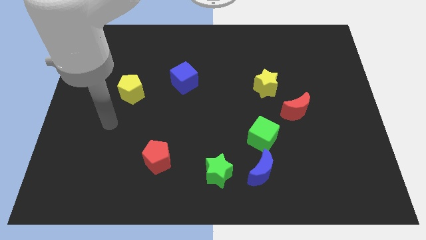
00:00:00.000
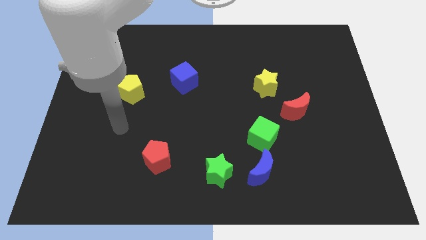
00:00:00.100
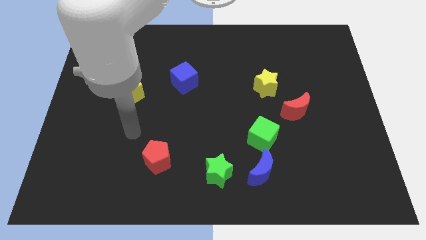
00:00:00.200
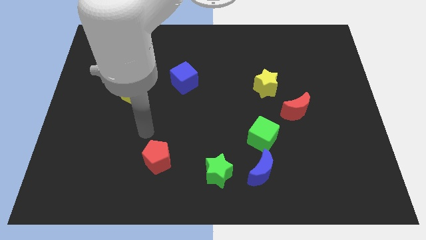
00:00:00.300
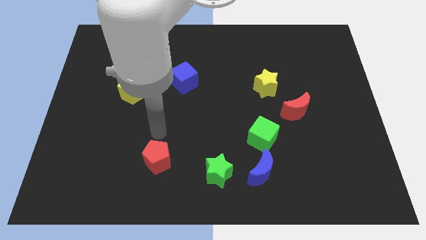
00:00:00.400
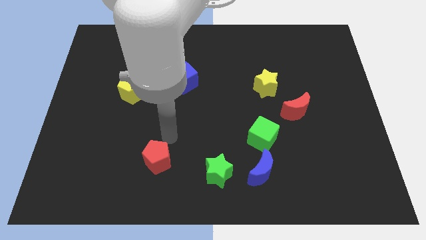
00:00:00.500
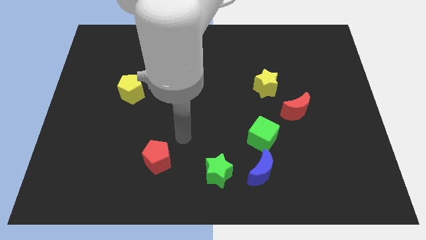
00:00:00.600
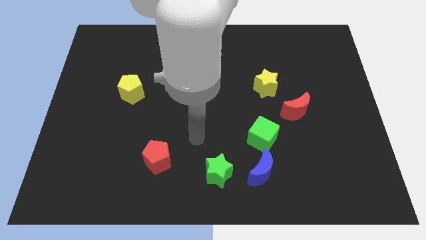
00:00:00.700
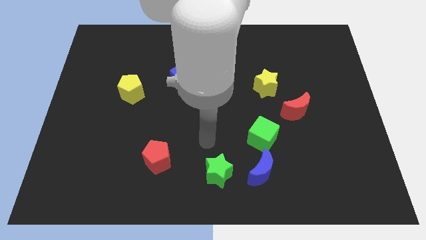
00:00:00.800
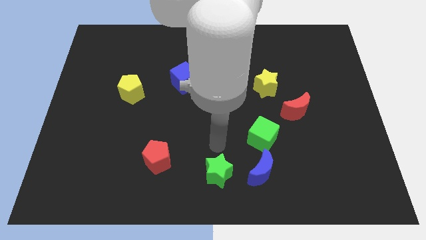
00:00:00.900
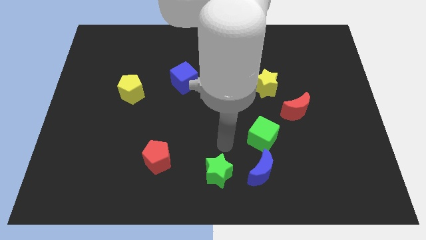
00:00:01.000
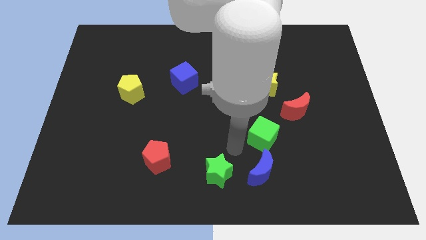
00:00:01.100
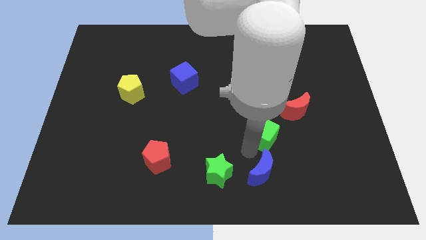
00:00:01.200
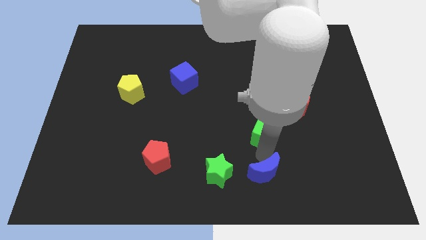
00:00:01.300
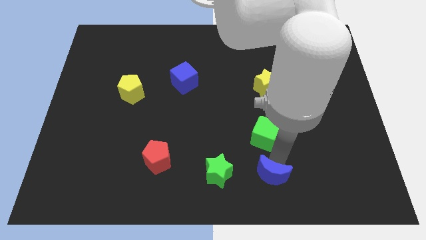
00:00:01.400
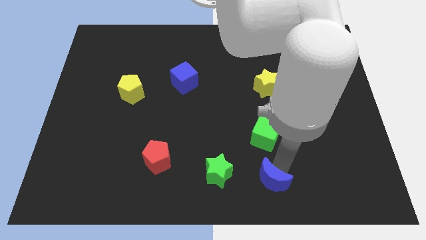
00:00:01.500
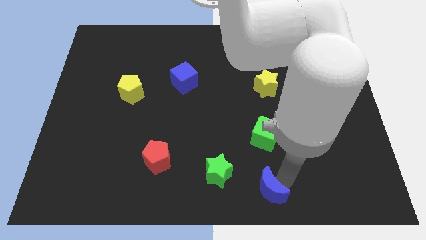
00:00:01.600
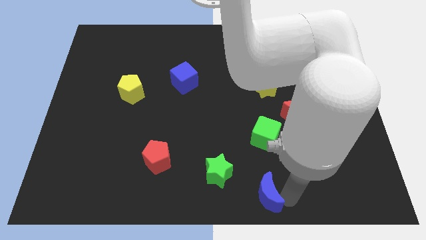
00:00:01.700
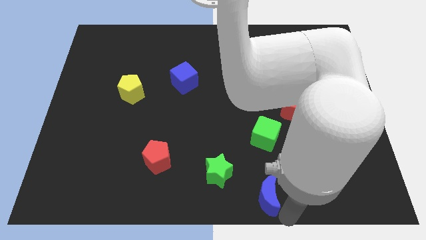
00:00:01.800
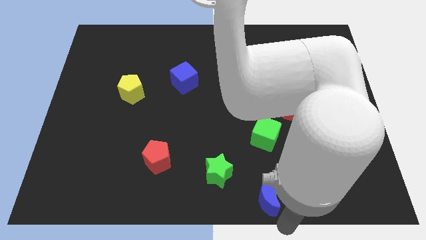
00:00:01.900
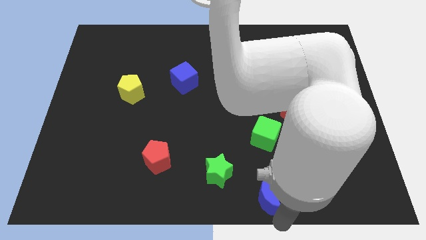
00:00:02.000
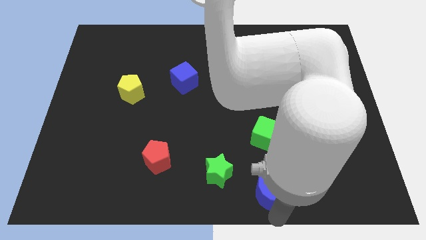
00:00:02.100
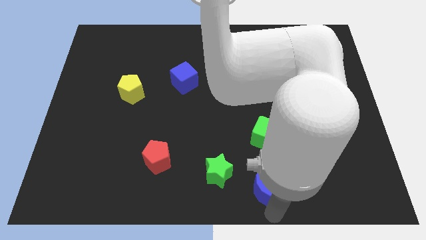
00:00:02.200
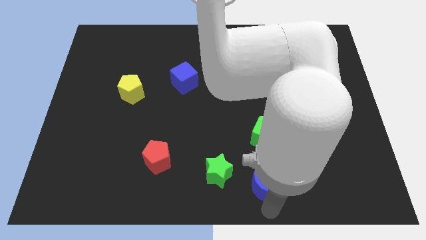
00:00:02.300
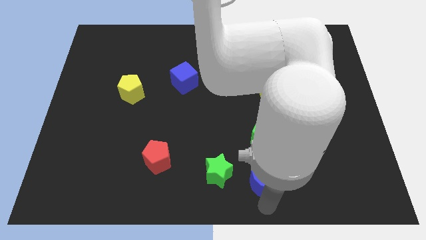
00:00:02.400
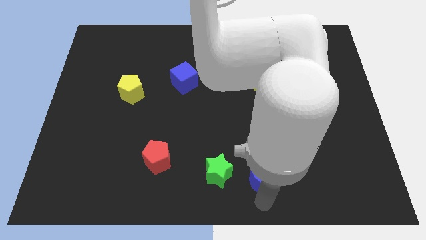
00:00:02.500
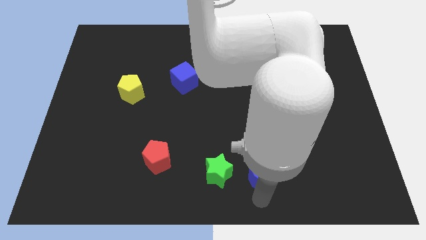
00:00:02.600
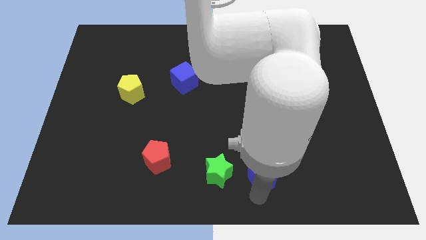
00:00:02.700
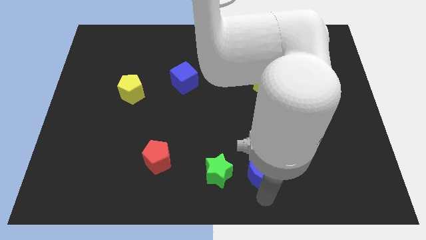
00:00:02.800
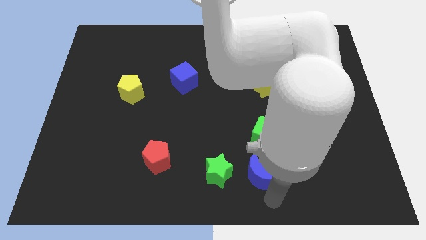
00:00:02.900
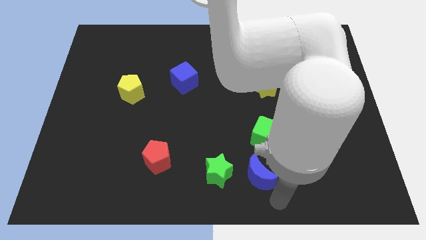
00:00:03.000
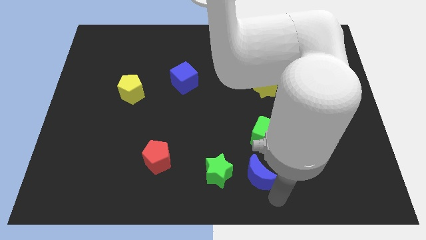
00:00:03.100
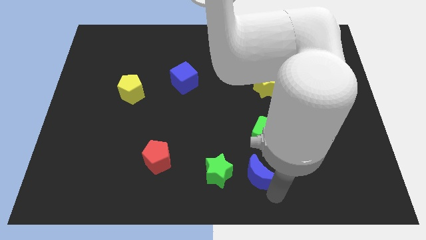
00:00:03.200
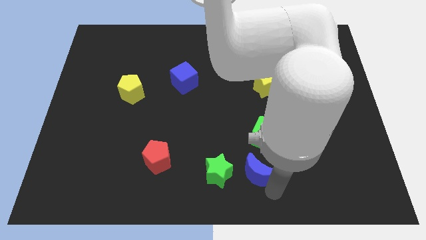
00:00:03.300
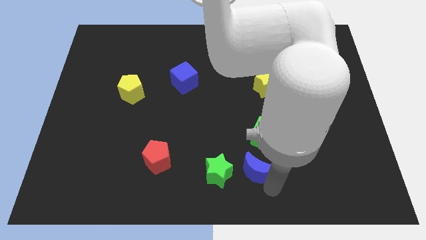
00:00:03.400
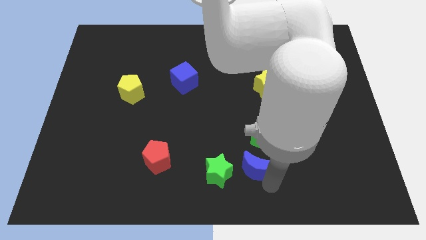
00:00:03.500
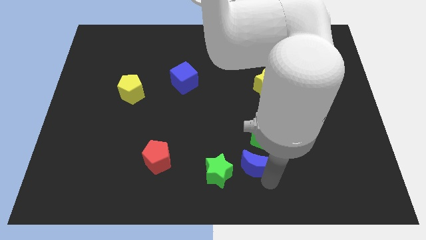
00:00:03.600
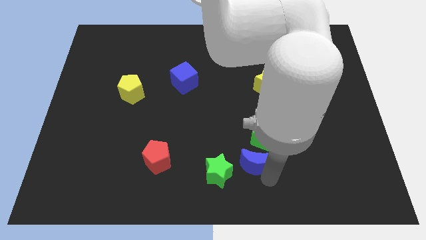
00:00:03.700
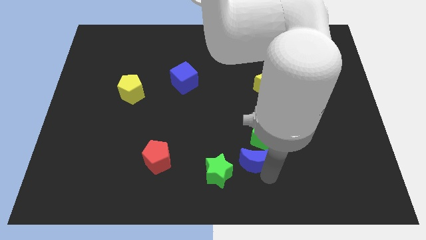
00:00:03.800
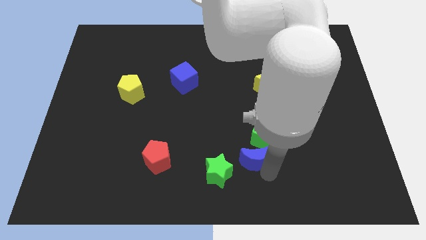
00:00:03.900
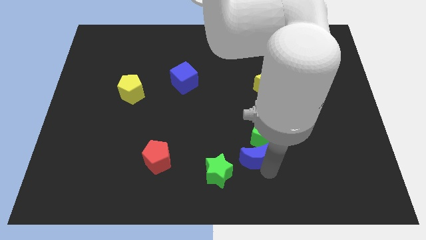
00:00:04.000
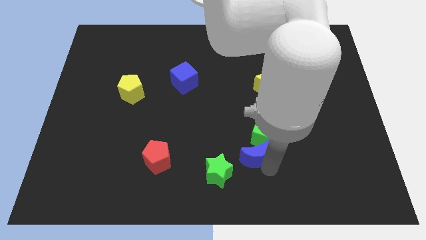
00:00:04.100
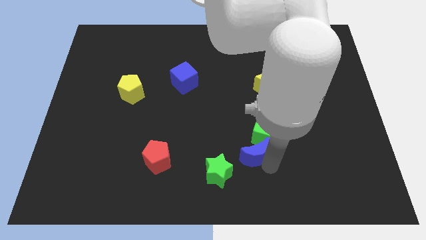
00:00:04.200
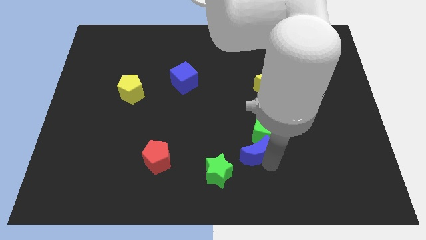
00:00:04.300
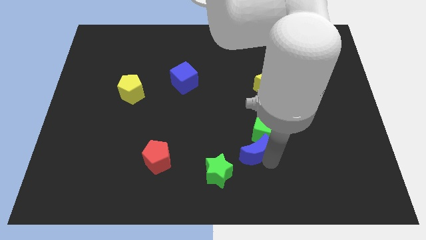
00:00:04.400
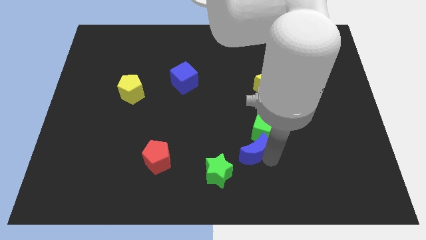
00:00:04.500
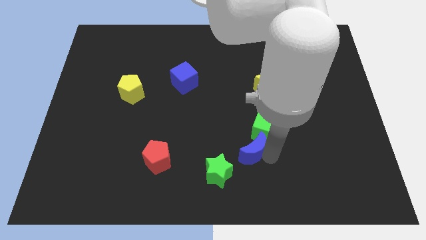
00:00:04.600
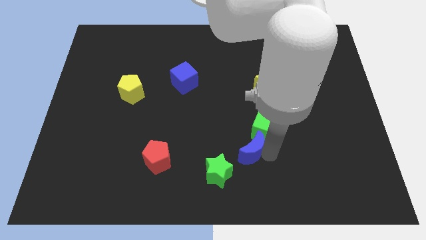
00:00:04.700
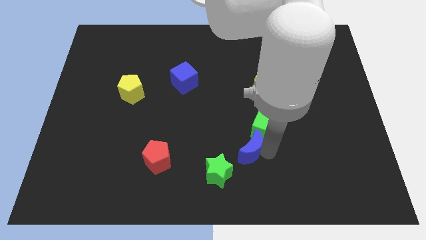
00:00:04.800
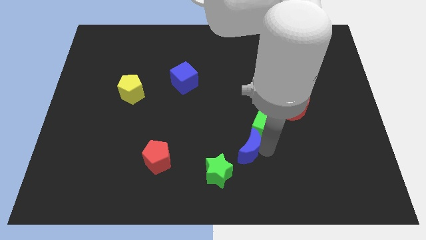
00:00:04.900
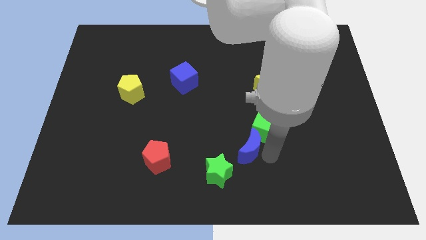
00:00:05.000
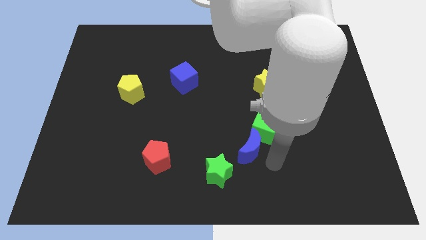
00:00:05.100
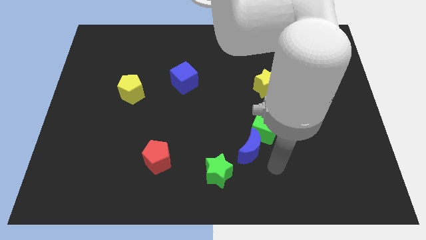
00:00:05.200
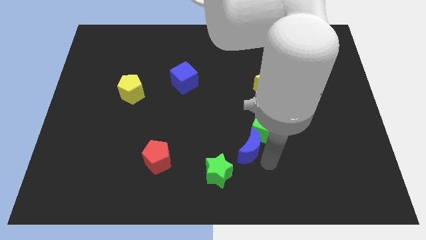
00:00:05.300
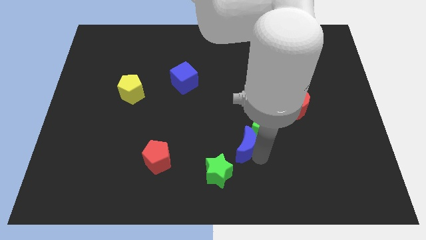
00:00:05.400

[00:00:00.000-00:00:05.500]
put the blue moon to the left of the green cube

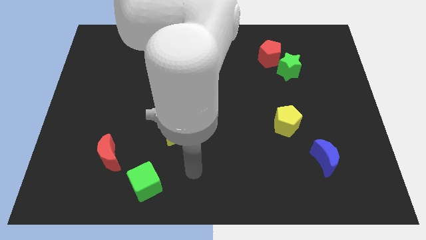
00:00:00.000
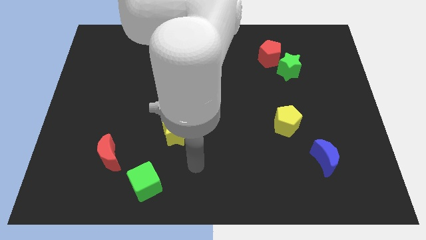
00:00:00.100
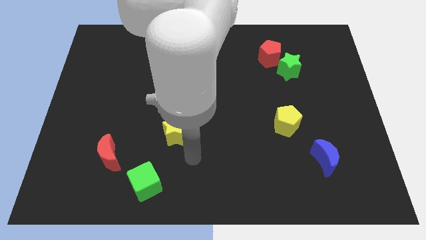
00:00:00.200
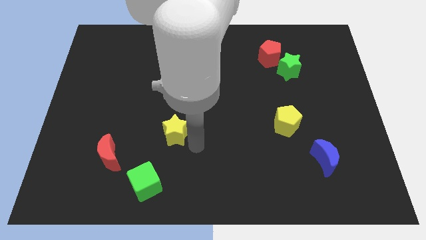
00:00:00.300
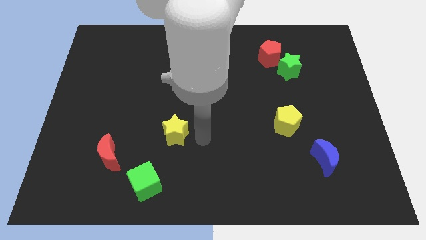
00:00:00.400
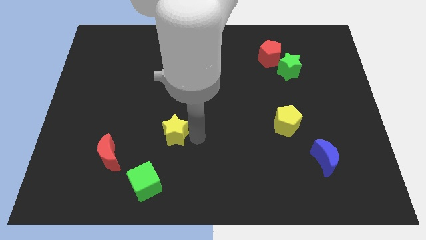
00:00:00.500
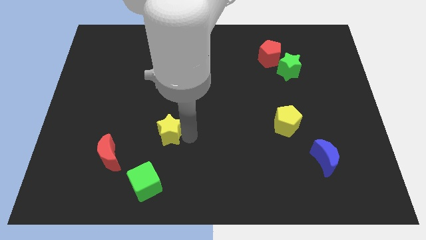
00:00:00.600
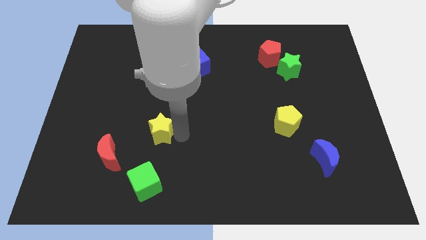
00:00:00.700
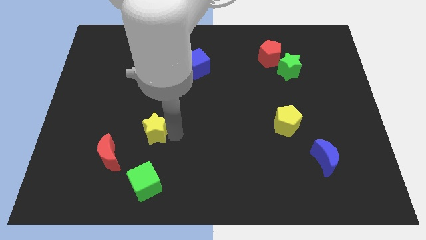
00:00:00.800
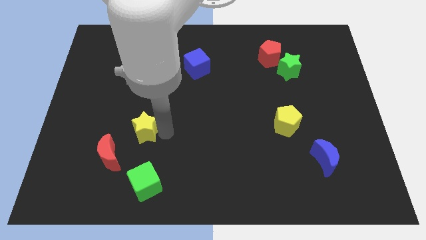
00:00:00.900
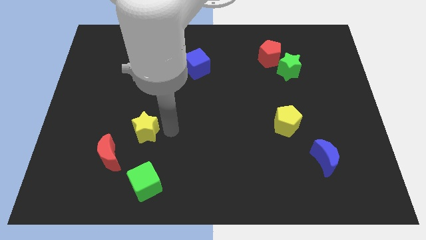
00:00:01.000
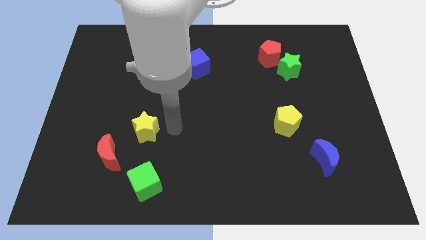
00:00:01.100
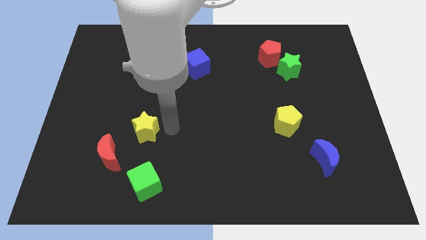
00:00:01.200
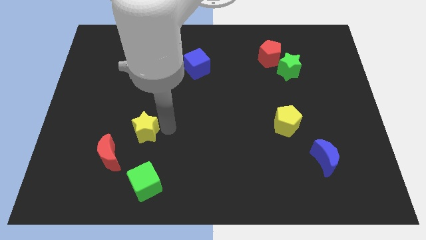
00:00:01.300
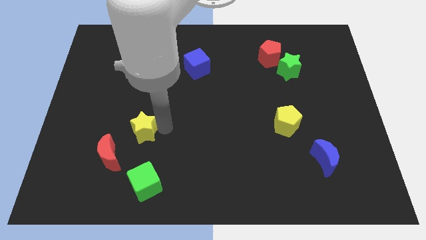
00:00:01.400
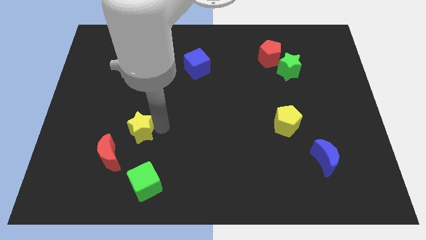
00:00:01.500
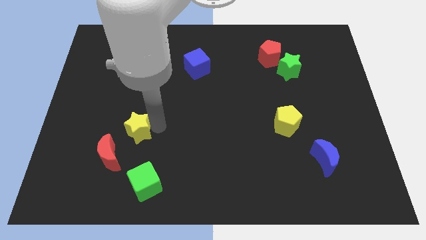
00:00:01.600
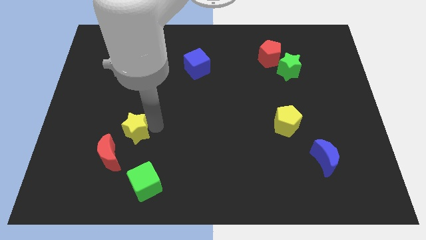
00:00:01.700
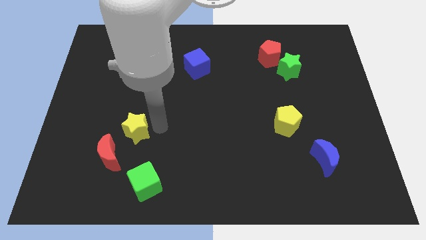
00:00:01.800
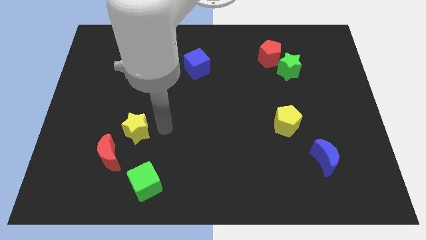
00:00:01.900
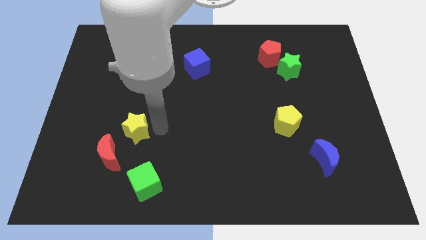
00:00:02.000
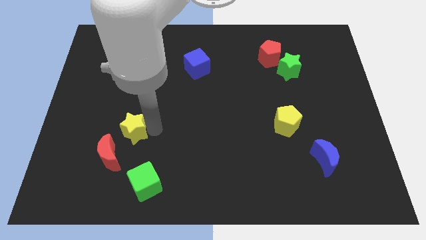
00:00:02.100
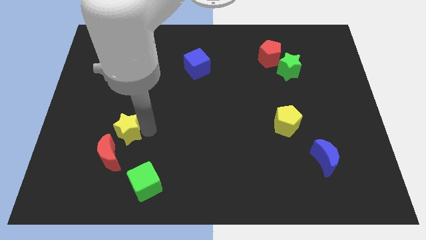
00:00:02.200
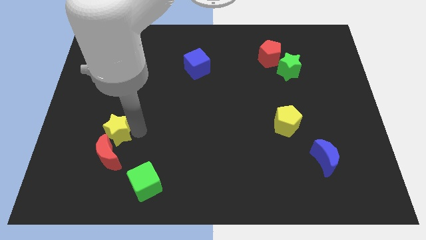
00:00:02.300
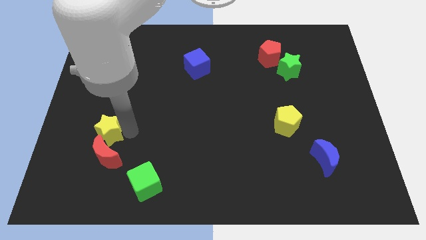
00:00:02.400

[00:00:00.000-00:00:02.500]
move the yellow star diagonally up and to the left of the red moon
